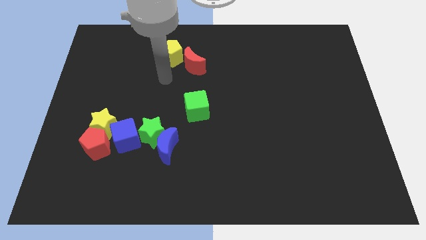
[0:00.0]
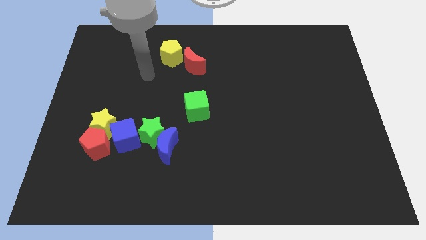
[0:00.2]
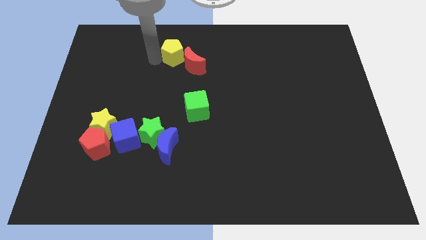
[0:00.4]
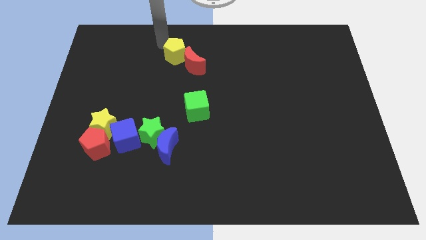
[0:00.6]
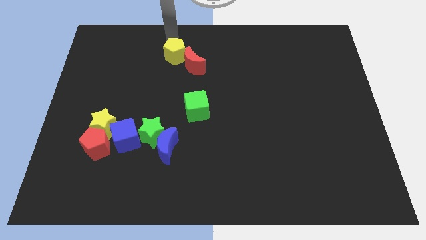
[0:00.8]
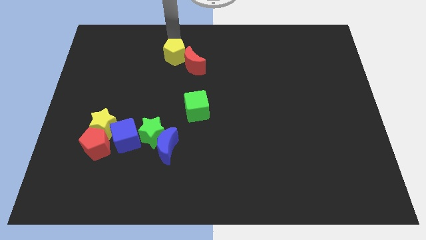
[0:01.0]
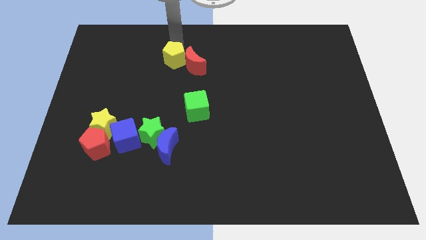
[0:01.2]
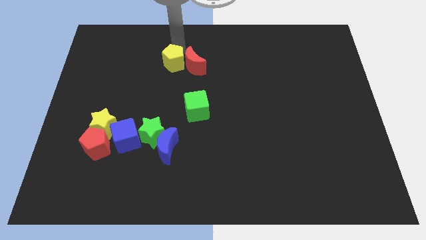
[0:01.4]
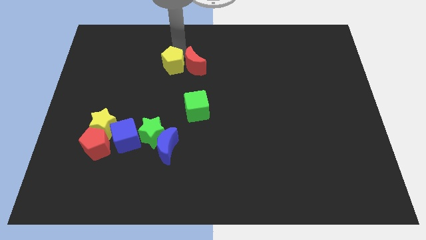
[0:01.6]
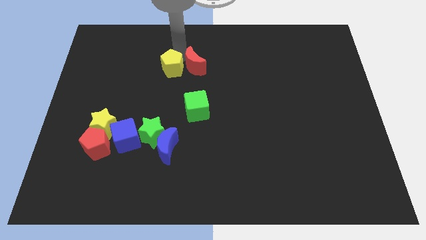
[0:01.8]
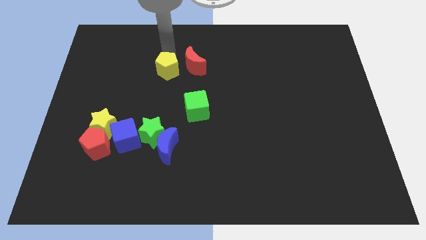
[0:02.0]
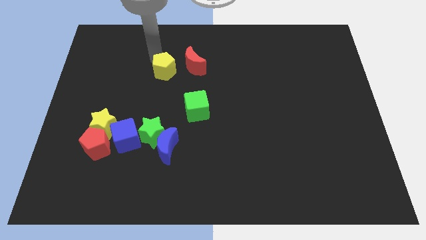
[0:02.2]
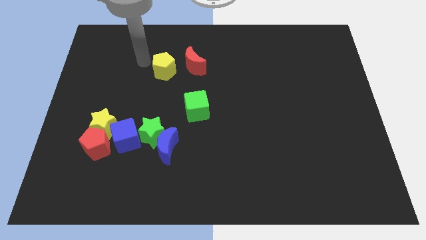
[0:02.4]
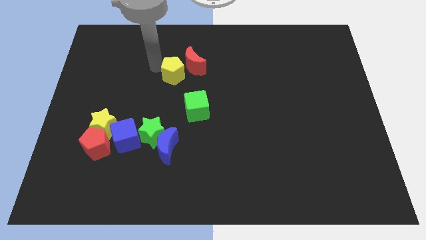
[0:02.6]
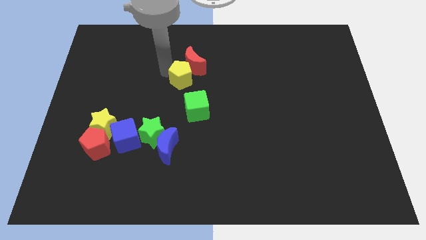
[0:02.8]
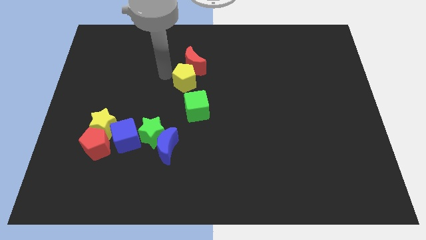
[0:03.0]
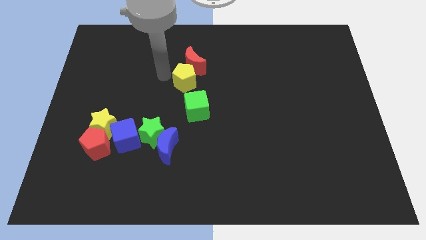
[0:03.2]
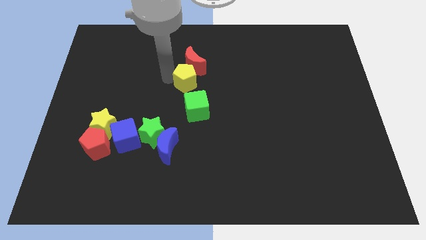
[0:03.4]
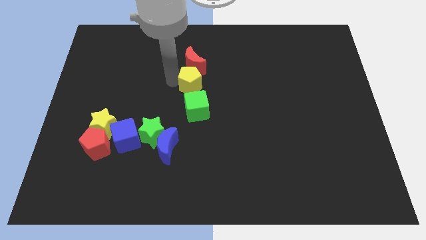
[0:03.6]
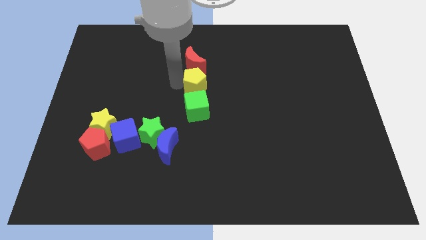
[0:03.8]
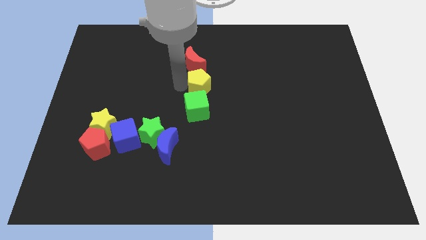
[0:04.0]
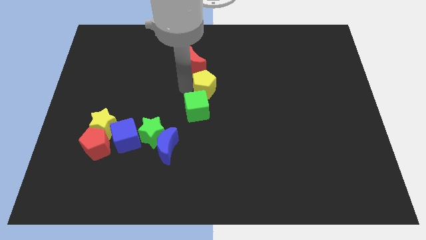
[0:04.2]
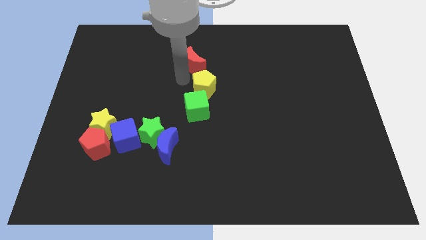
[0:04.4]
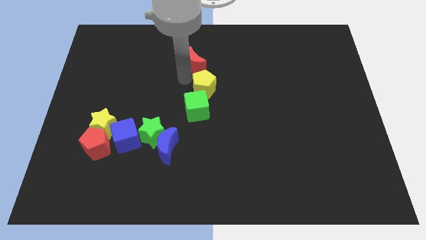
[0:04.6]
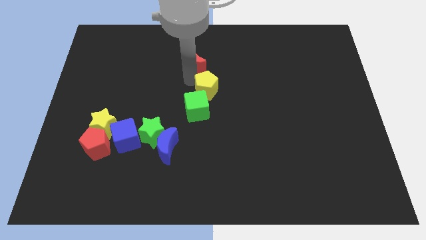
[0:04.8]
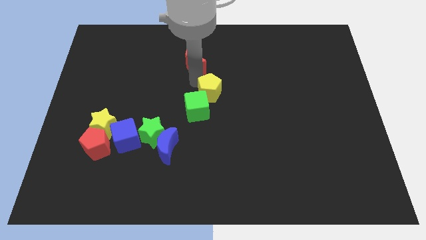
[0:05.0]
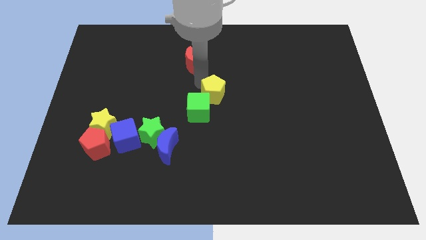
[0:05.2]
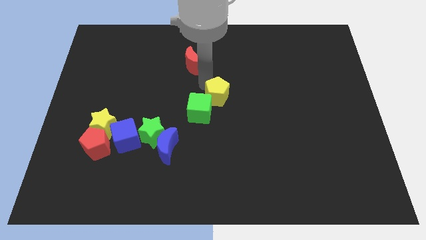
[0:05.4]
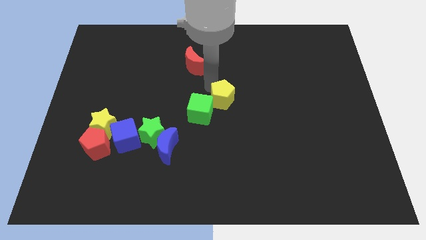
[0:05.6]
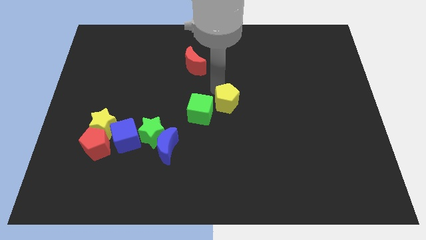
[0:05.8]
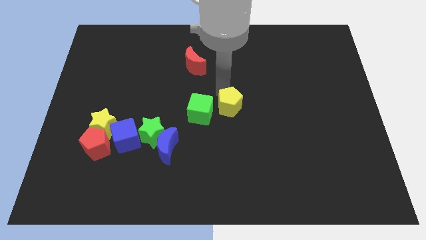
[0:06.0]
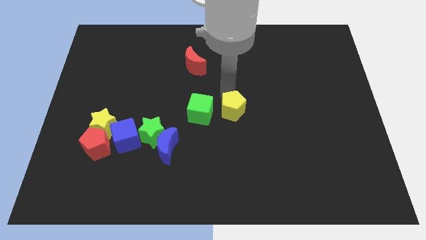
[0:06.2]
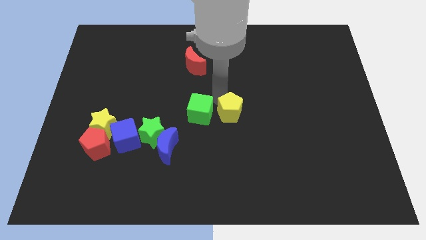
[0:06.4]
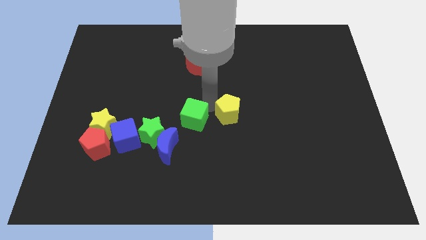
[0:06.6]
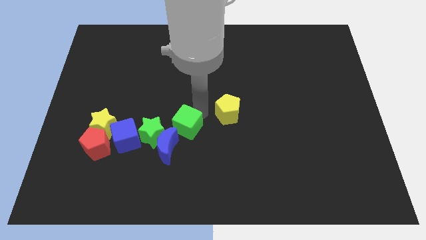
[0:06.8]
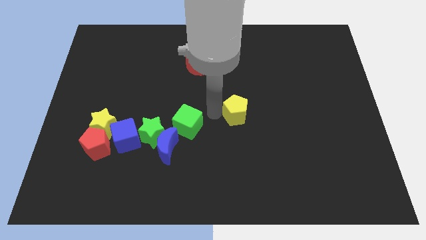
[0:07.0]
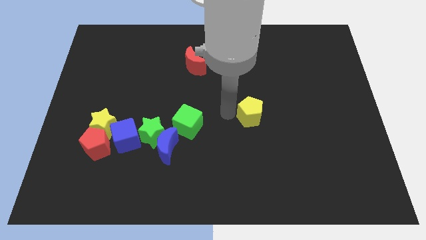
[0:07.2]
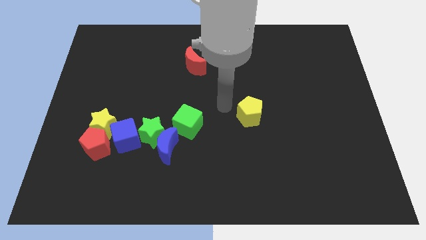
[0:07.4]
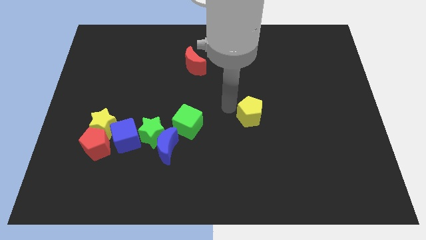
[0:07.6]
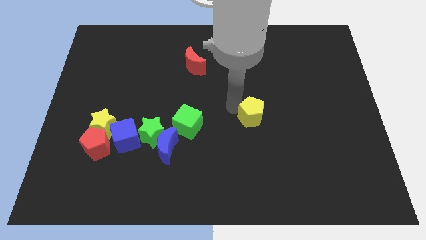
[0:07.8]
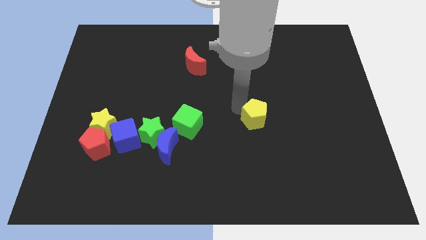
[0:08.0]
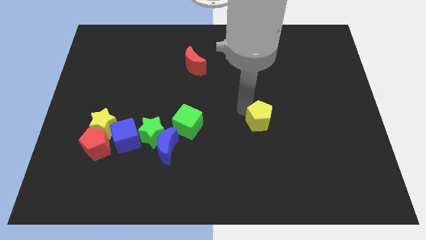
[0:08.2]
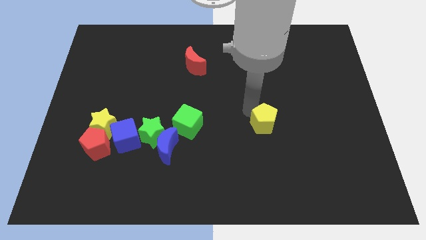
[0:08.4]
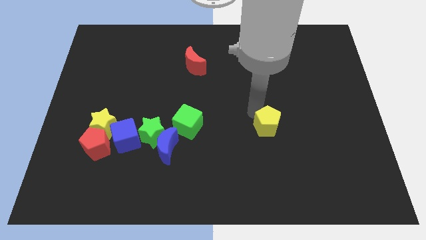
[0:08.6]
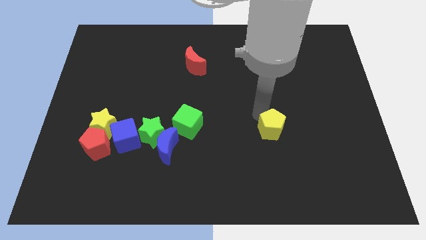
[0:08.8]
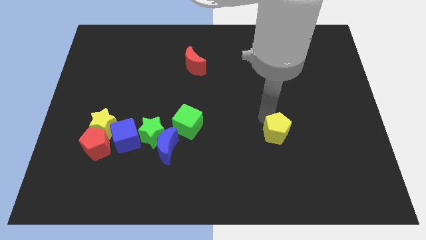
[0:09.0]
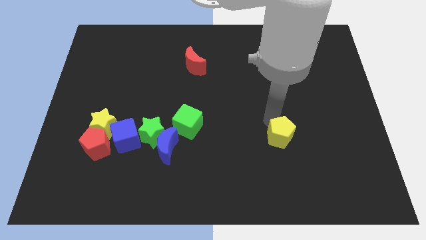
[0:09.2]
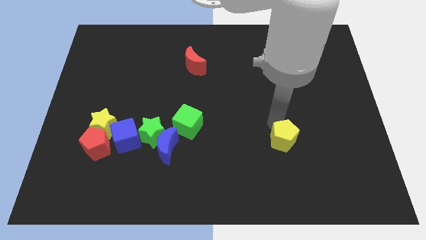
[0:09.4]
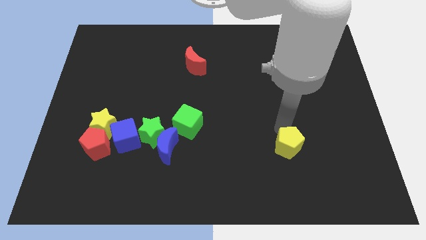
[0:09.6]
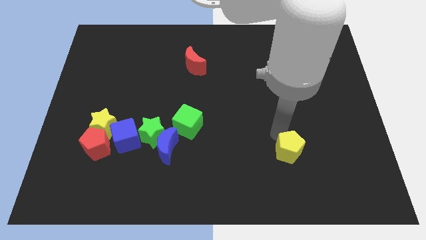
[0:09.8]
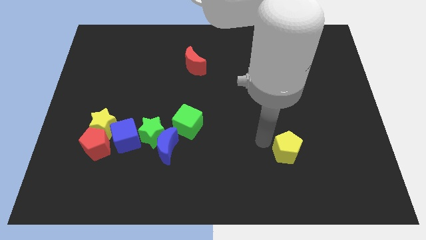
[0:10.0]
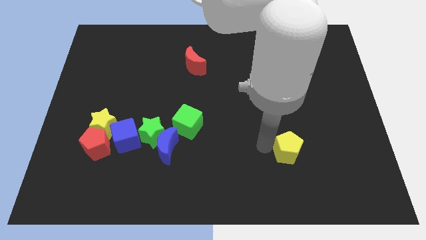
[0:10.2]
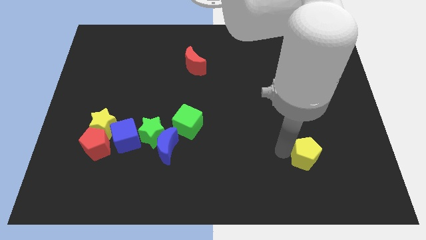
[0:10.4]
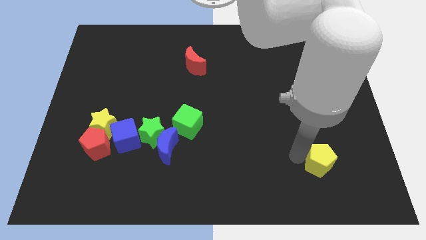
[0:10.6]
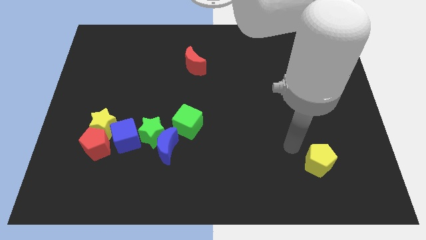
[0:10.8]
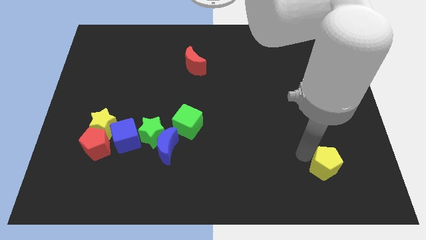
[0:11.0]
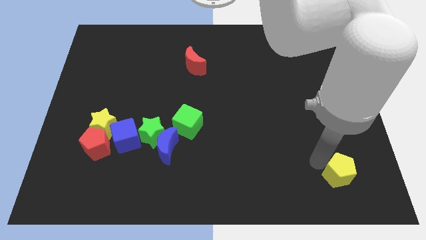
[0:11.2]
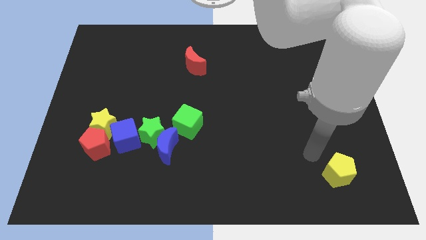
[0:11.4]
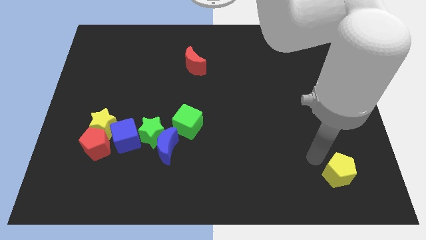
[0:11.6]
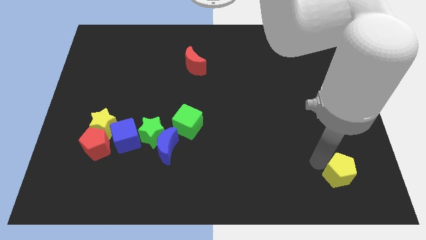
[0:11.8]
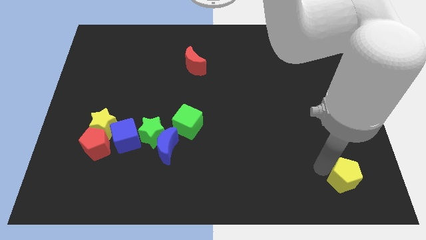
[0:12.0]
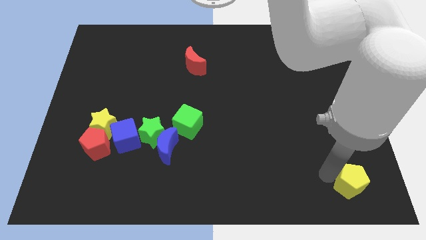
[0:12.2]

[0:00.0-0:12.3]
move the yellow pentagon to the bottom right
